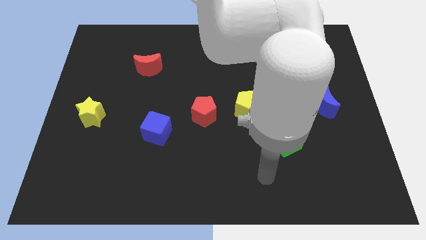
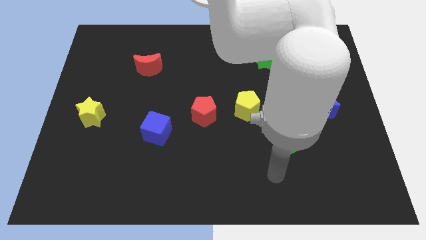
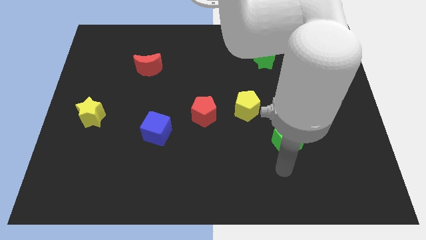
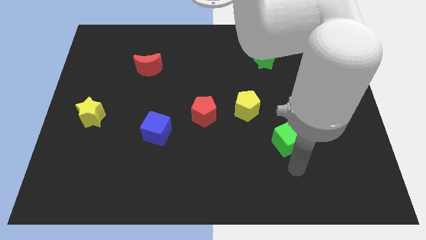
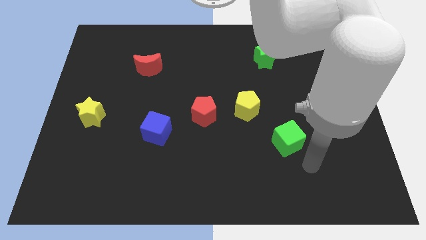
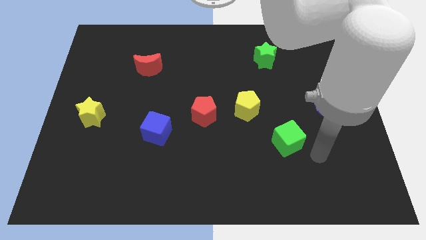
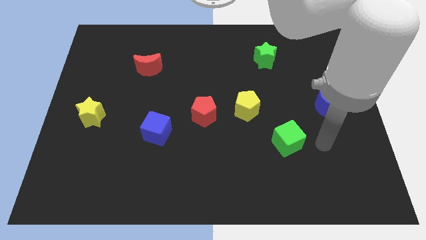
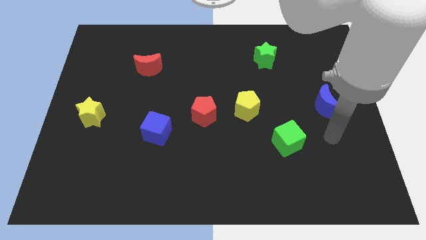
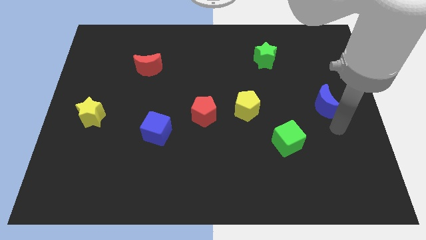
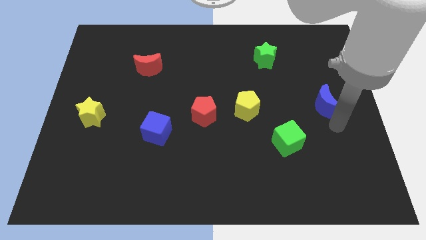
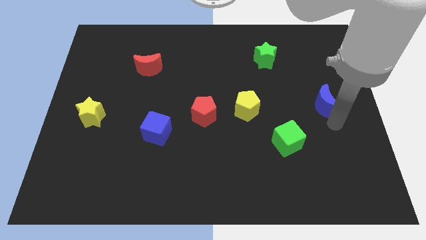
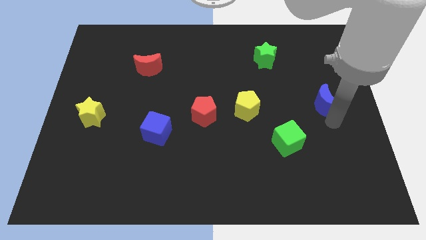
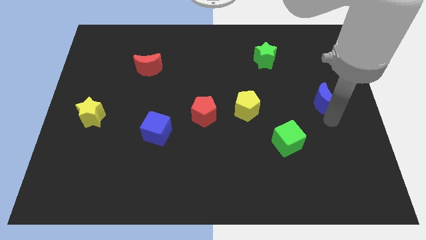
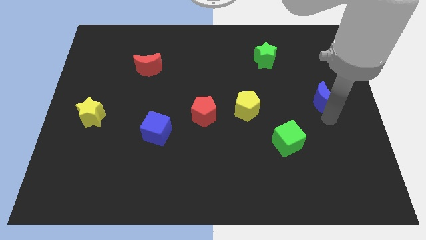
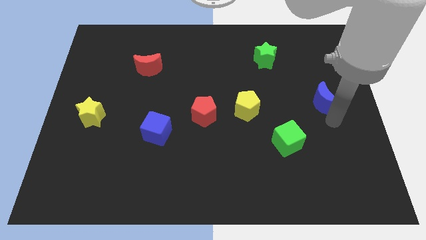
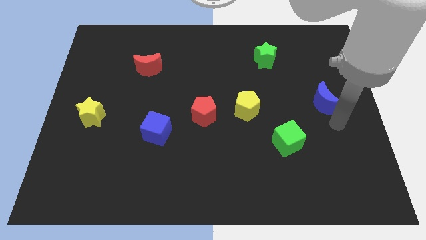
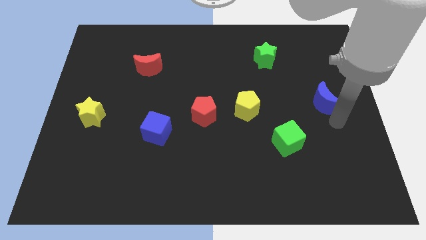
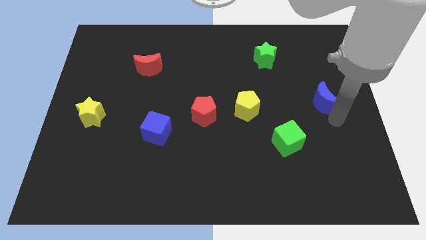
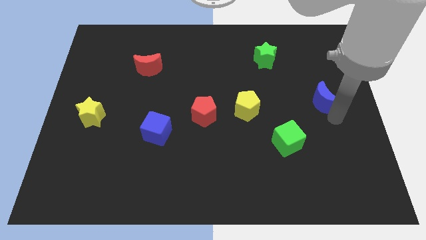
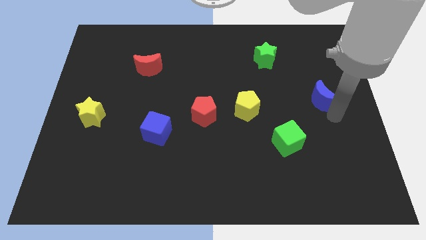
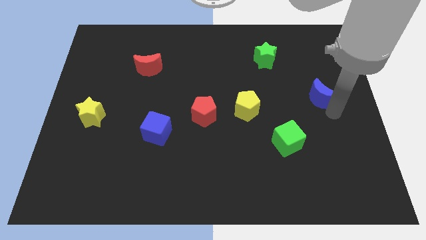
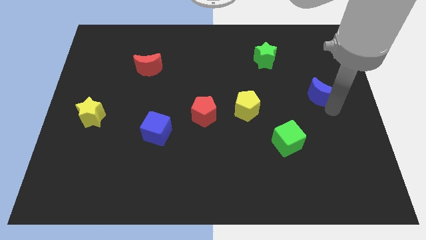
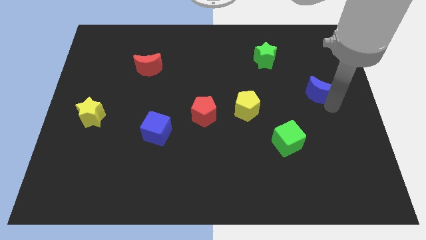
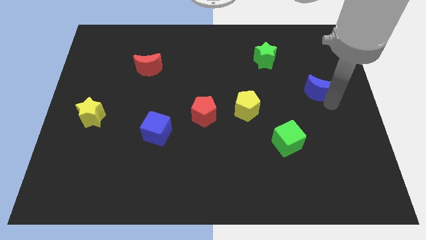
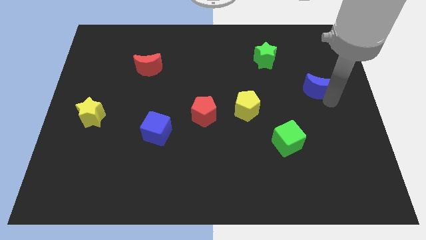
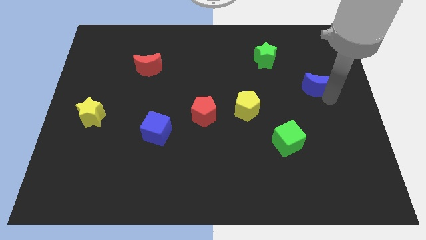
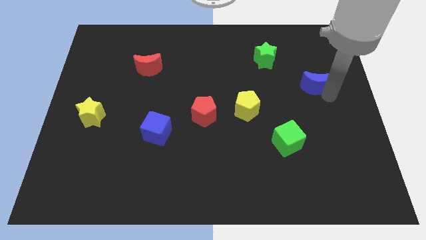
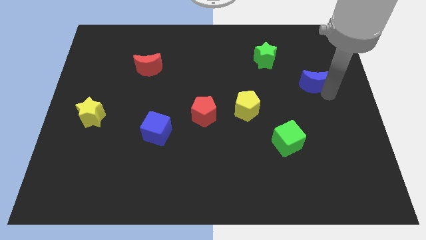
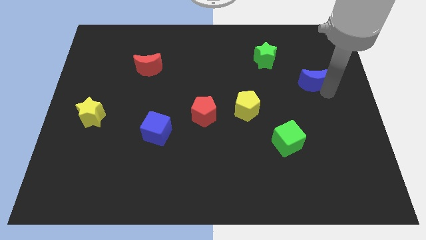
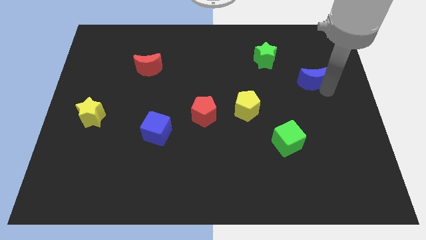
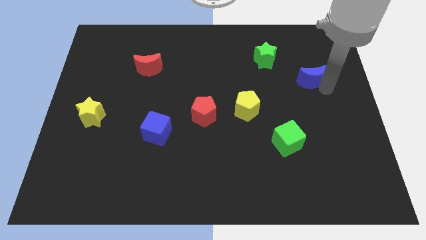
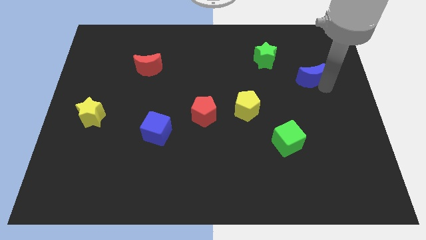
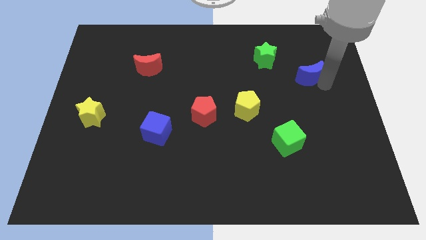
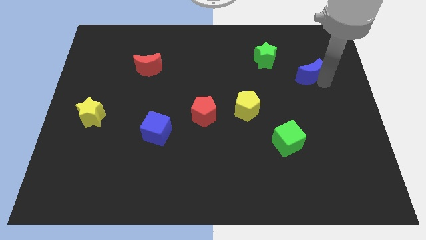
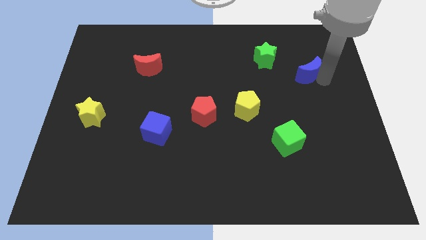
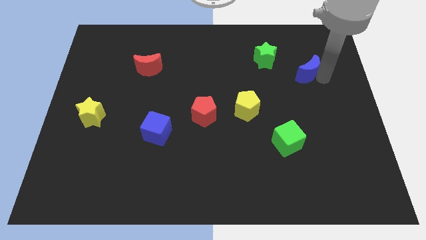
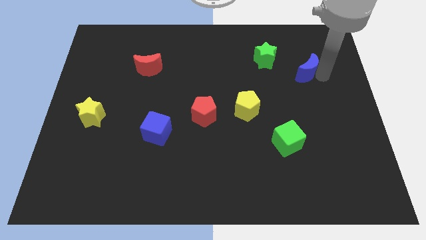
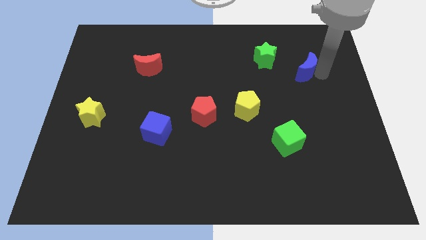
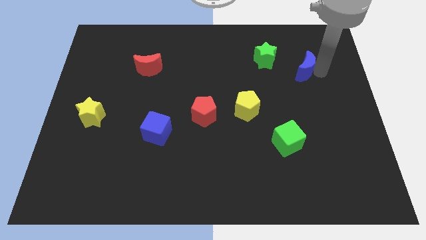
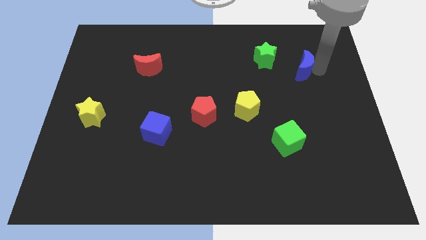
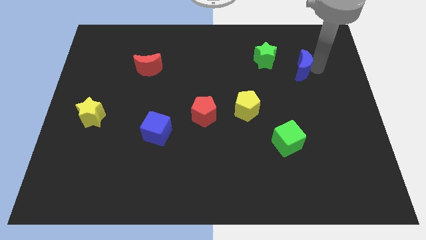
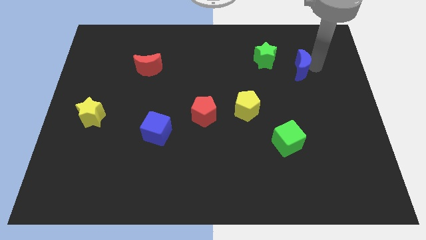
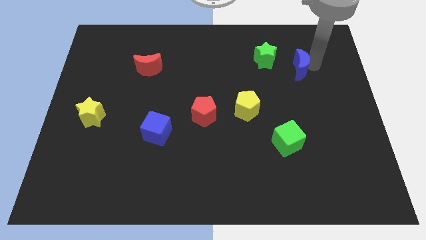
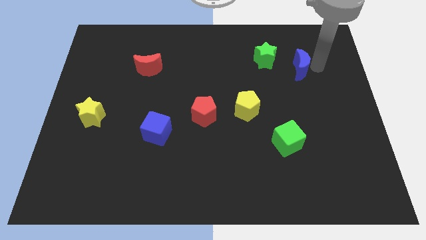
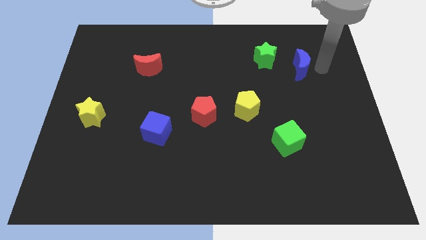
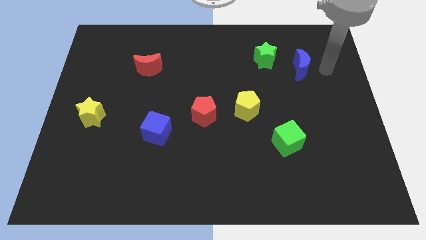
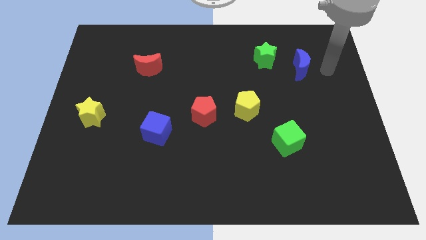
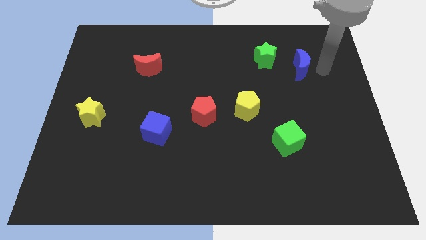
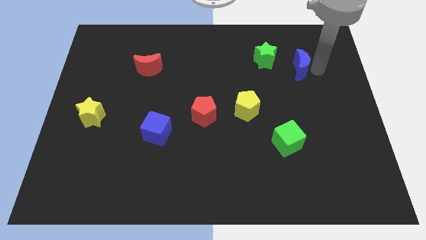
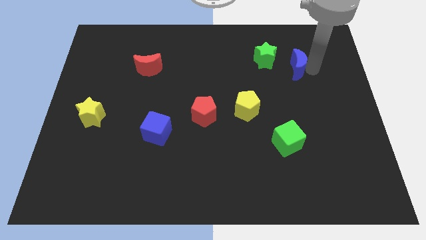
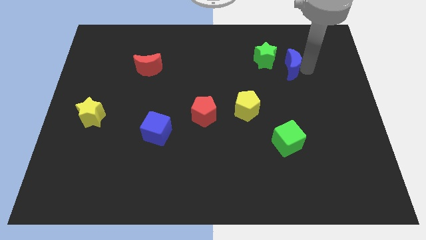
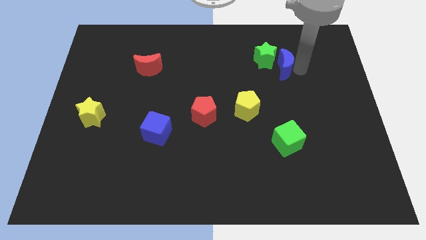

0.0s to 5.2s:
put the blue moon close to the green star

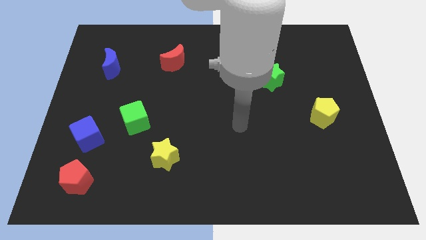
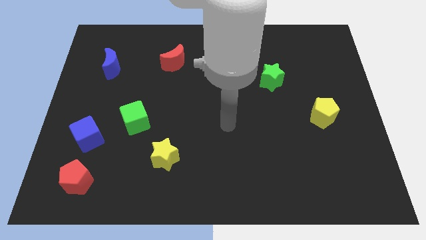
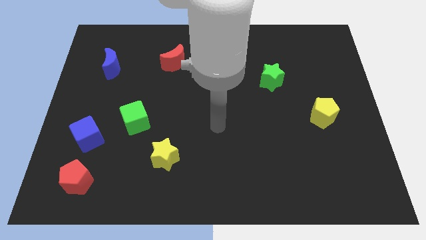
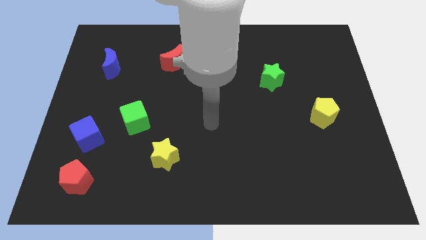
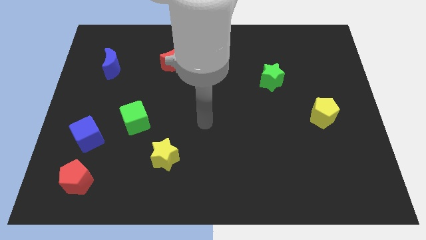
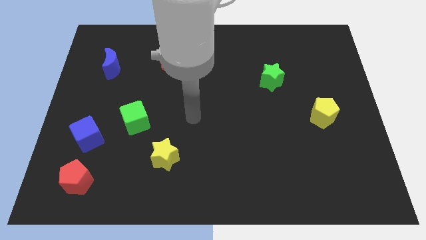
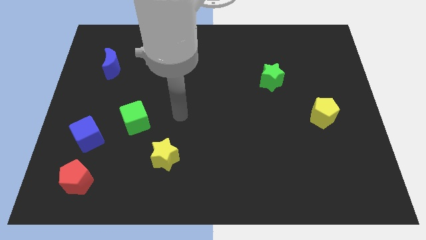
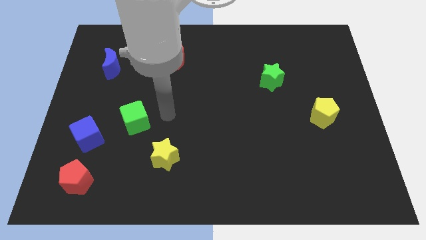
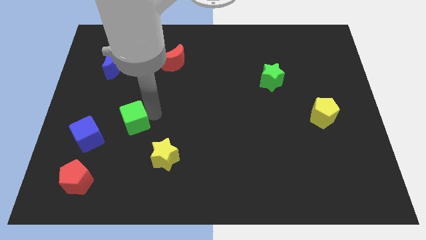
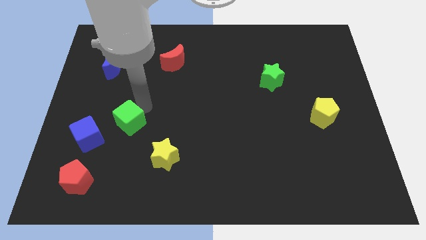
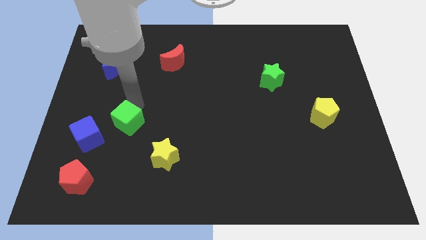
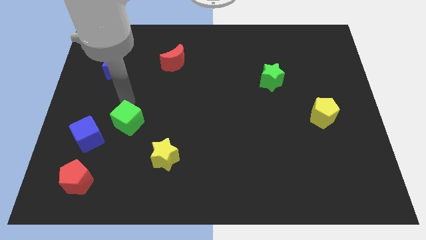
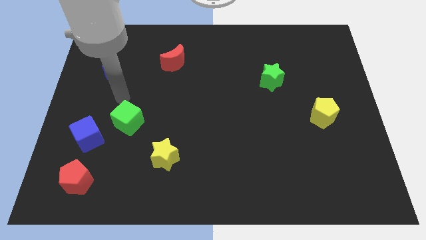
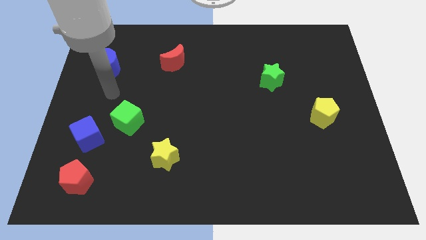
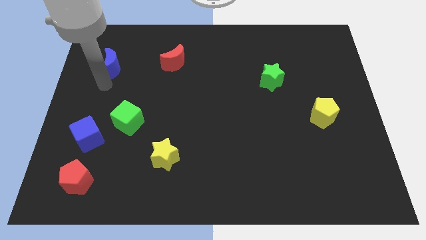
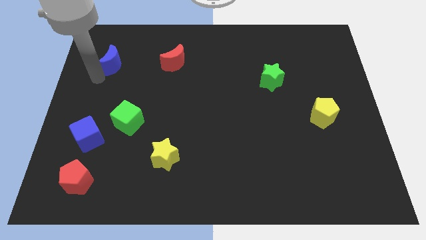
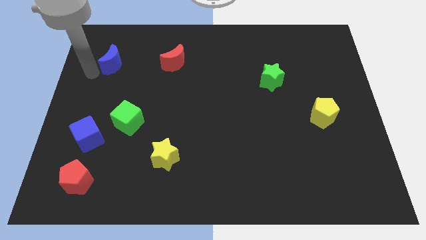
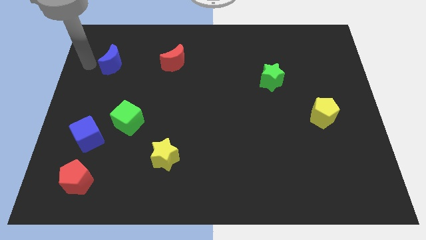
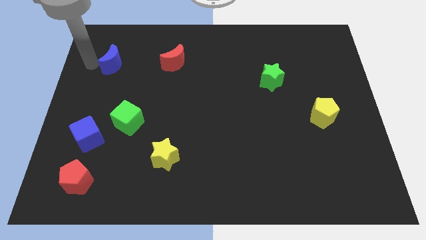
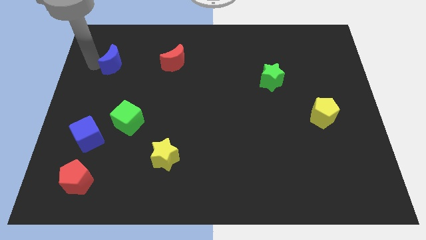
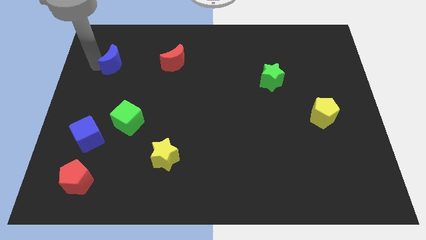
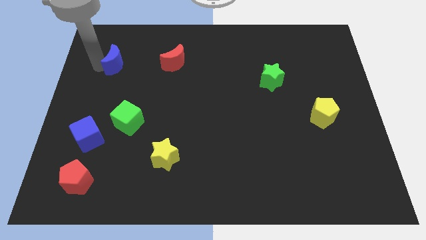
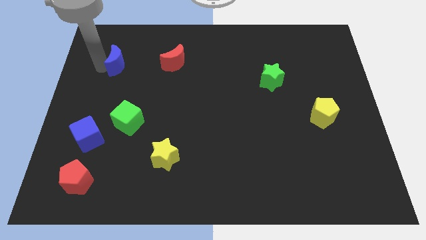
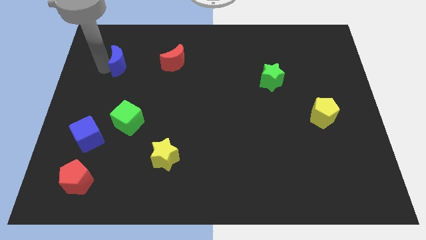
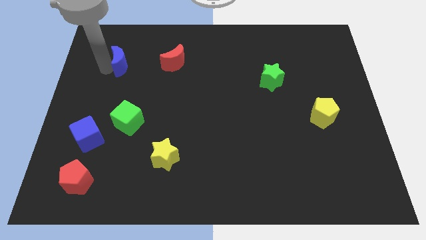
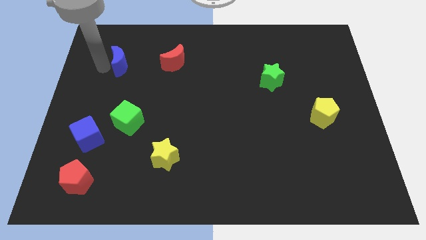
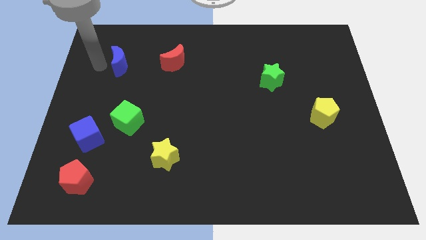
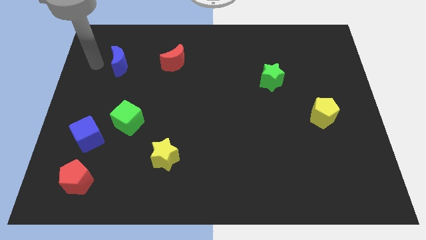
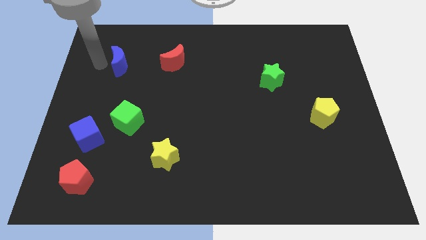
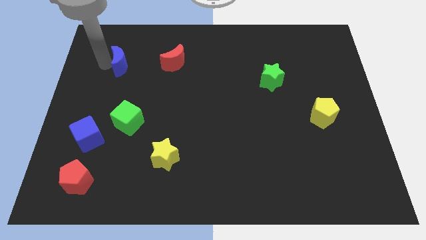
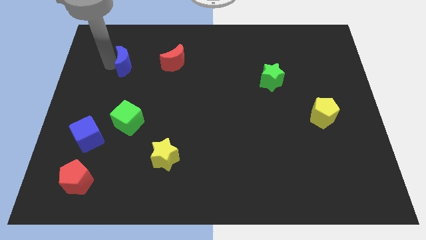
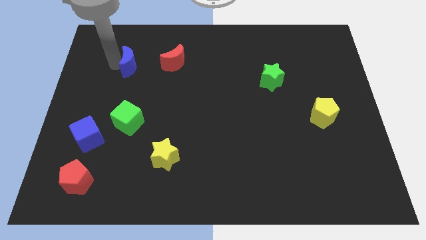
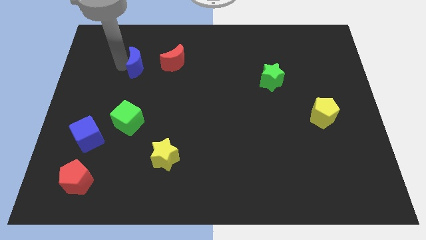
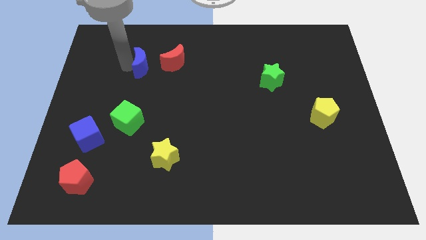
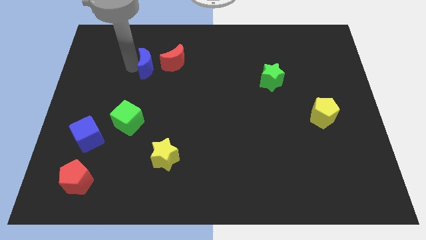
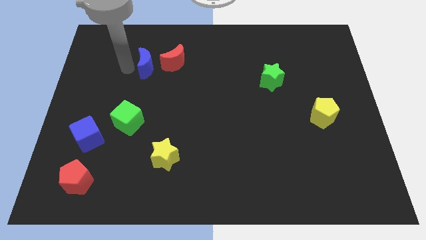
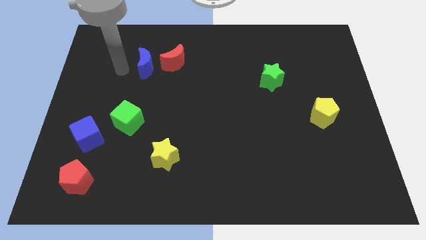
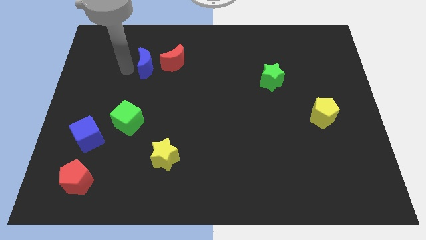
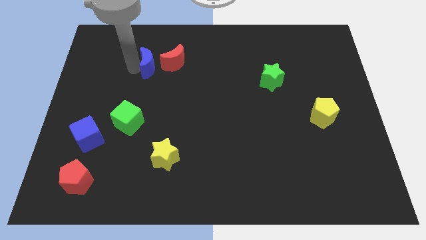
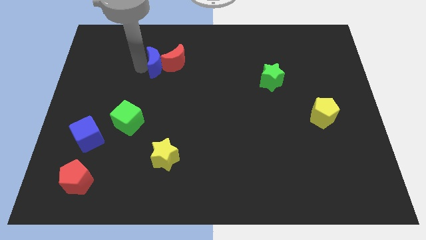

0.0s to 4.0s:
slide the blue moon to the red moon
